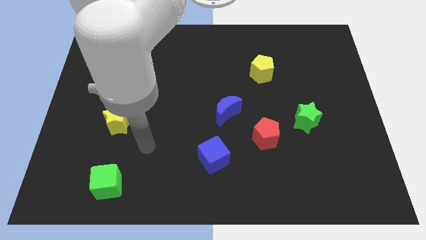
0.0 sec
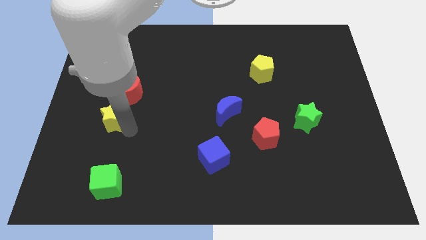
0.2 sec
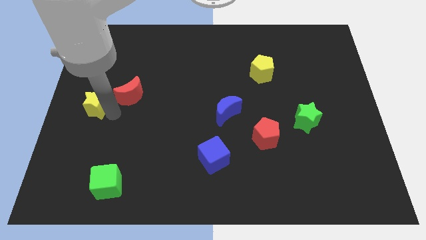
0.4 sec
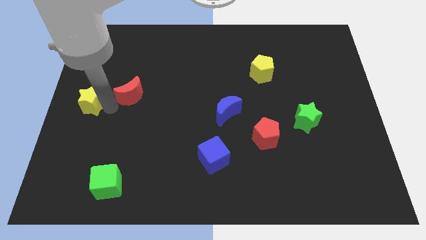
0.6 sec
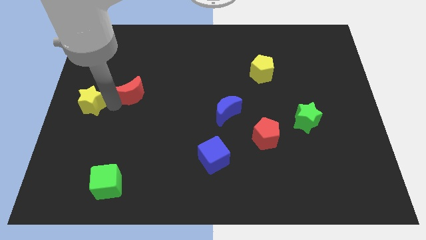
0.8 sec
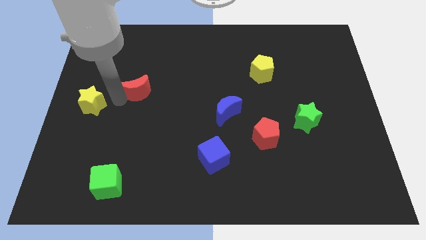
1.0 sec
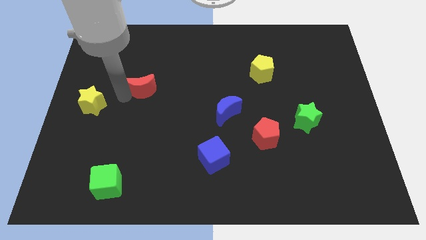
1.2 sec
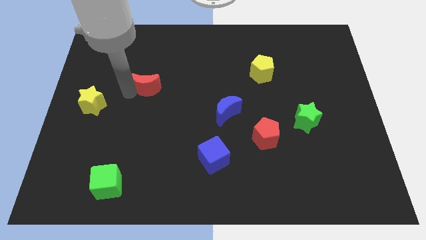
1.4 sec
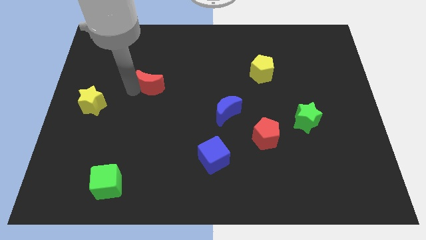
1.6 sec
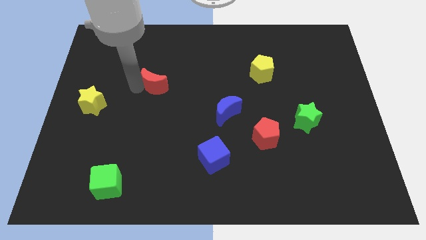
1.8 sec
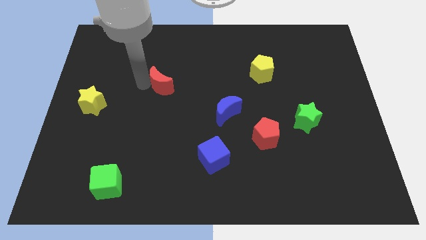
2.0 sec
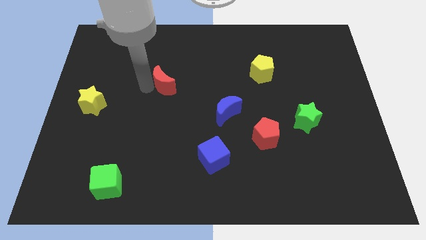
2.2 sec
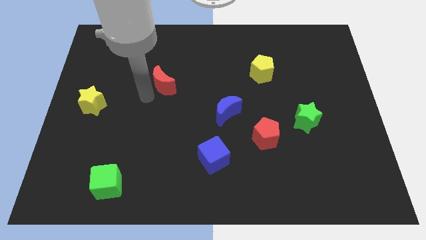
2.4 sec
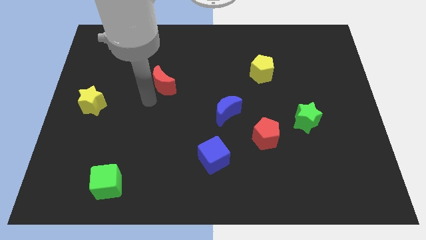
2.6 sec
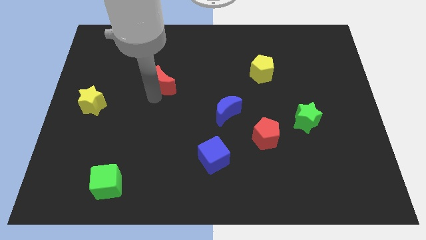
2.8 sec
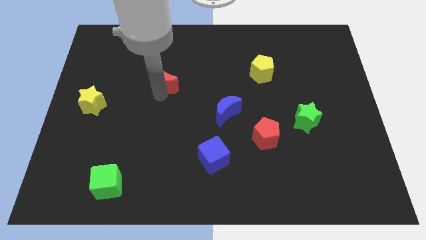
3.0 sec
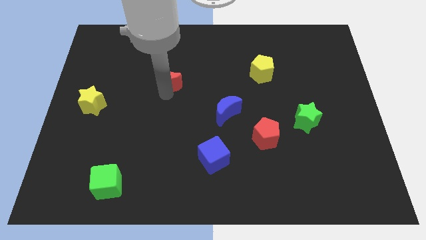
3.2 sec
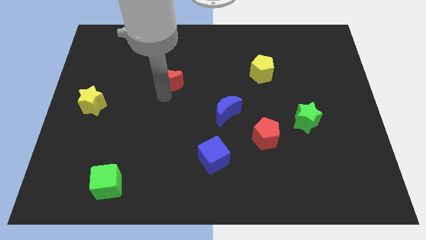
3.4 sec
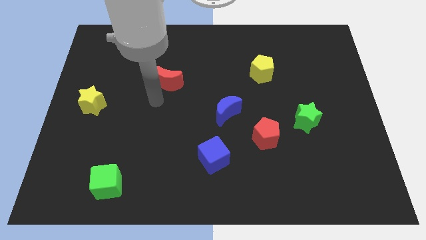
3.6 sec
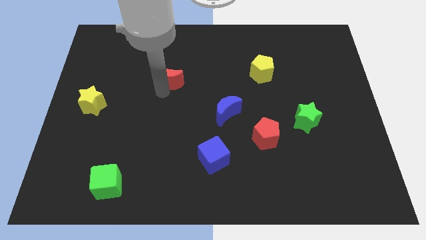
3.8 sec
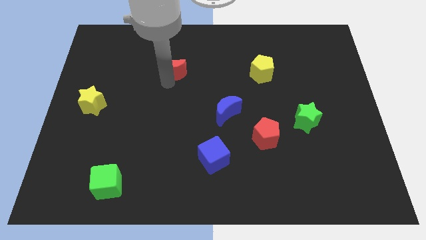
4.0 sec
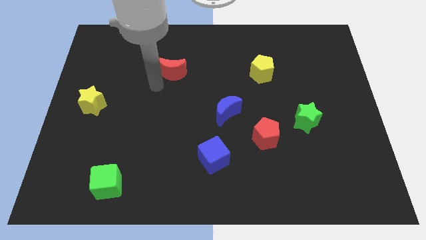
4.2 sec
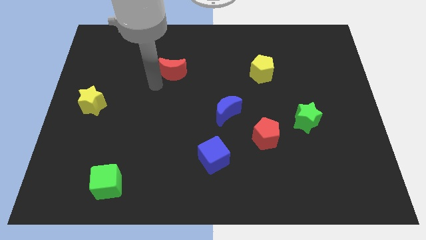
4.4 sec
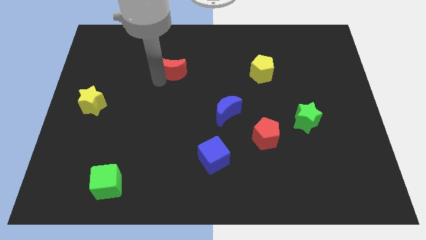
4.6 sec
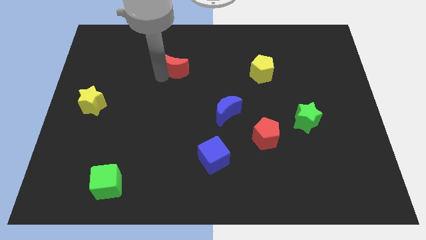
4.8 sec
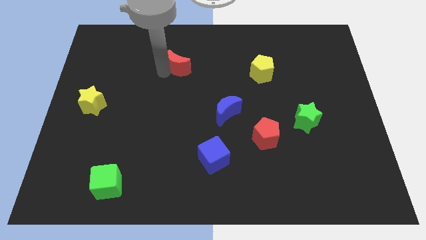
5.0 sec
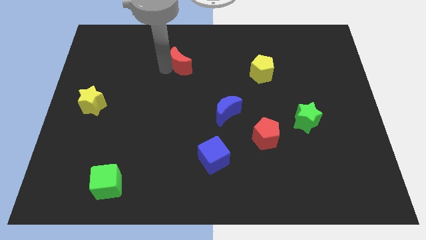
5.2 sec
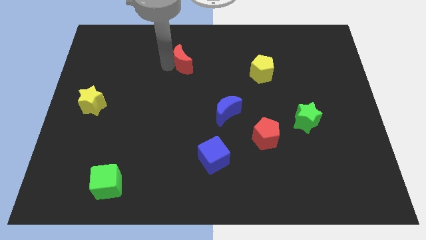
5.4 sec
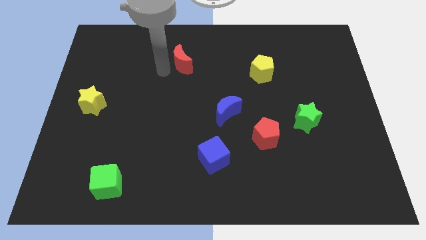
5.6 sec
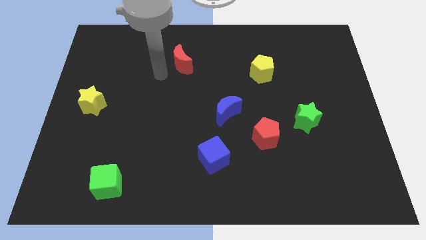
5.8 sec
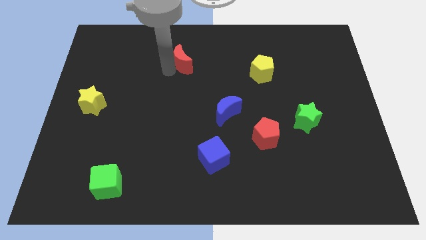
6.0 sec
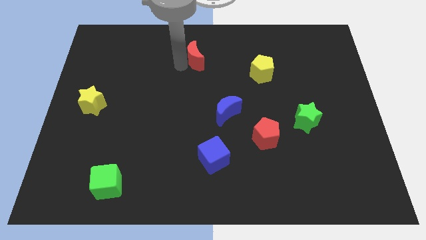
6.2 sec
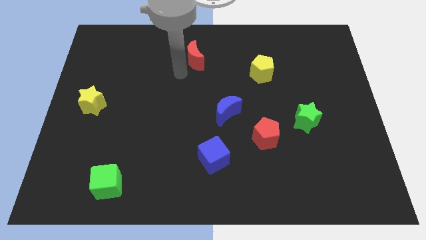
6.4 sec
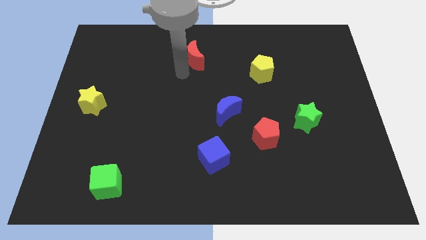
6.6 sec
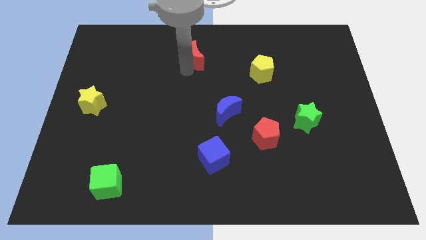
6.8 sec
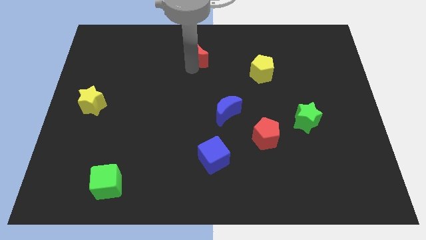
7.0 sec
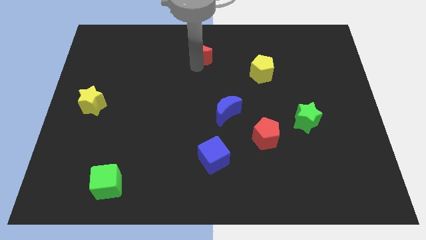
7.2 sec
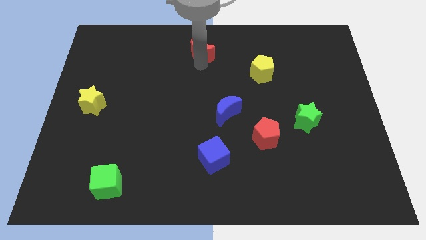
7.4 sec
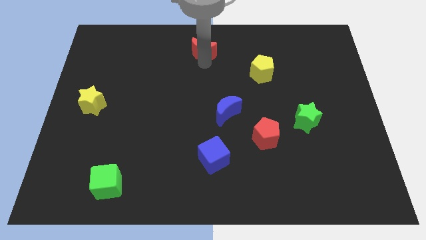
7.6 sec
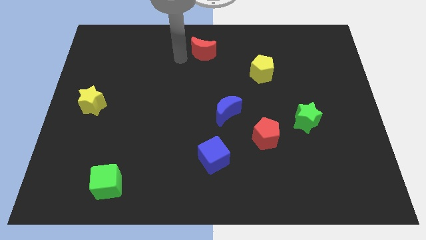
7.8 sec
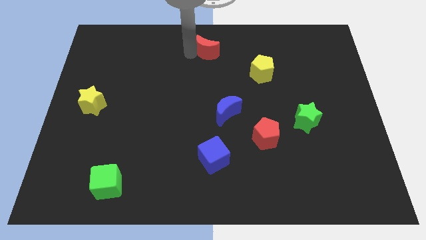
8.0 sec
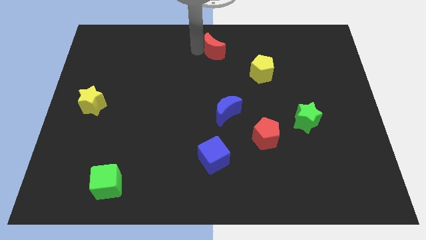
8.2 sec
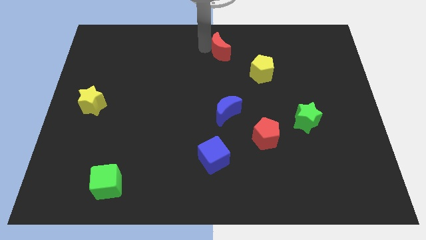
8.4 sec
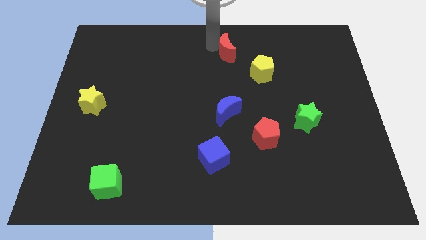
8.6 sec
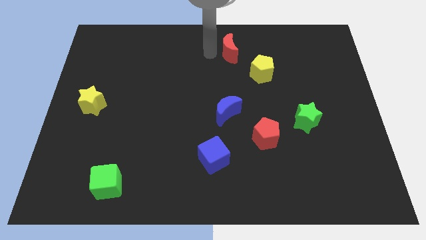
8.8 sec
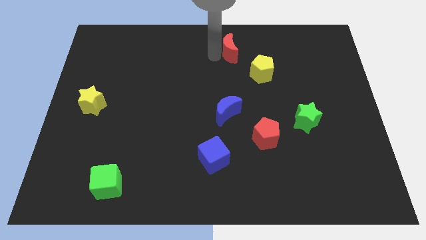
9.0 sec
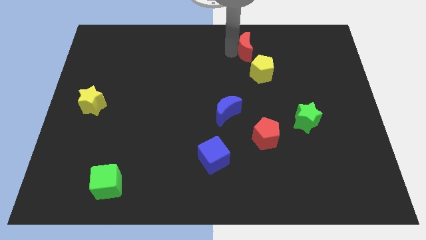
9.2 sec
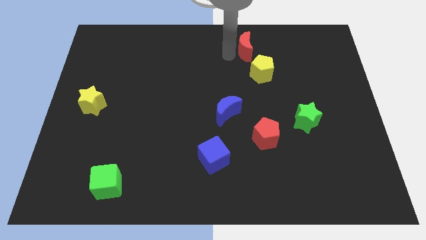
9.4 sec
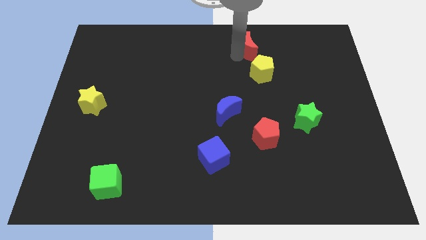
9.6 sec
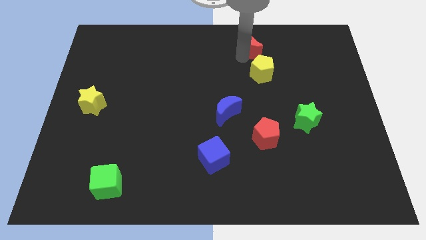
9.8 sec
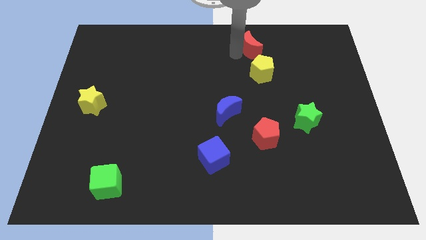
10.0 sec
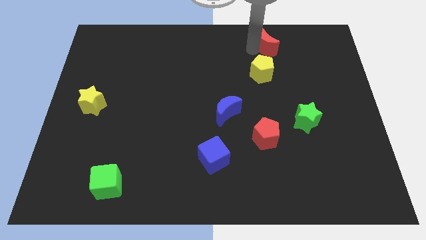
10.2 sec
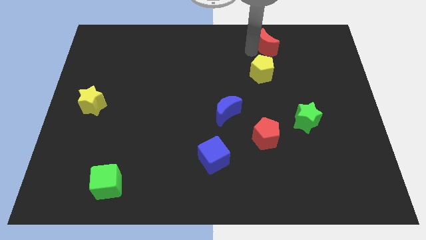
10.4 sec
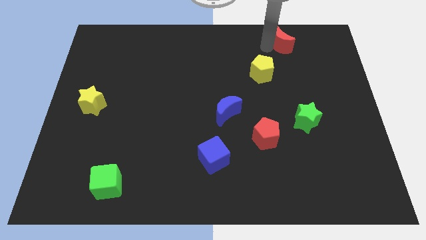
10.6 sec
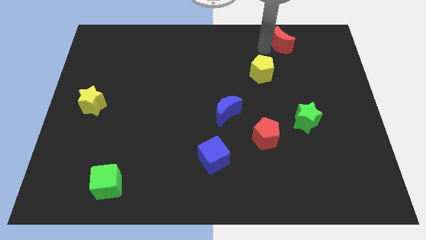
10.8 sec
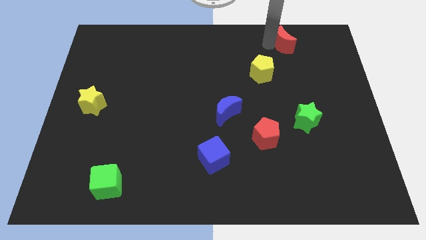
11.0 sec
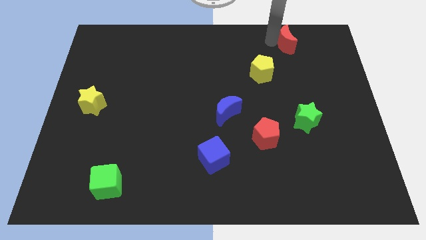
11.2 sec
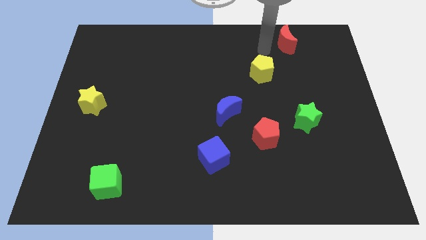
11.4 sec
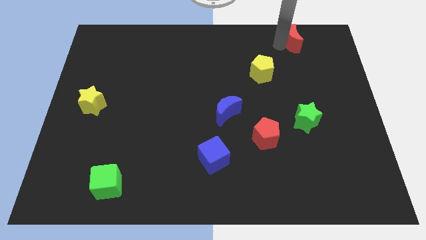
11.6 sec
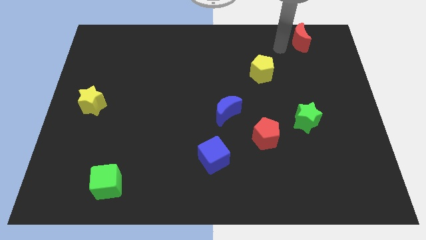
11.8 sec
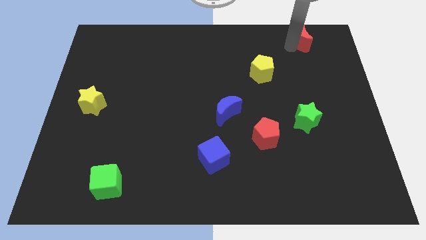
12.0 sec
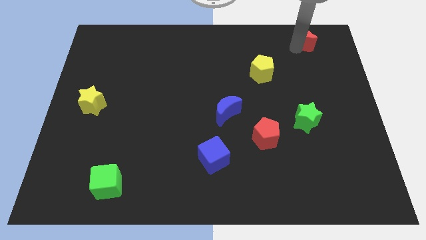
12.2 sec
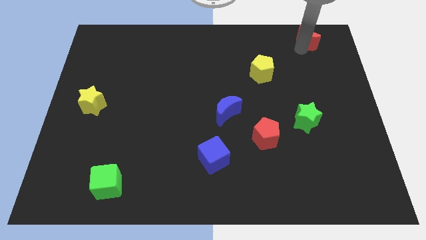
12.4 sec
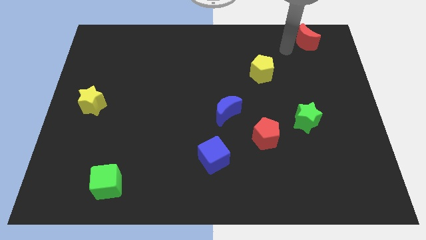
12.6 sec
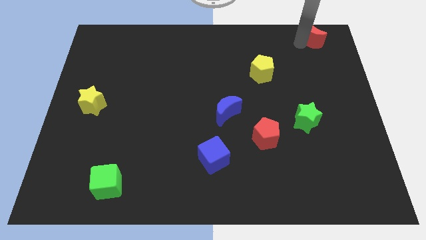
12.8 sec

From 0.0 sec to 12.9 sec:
slide the red moon to the top right
